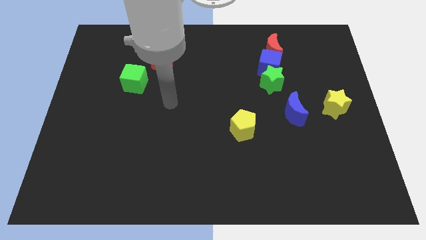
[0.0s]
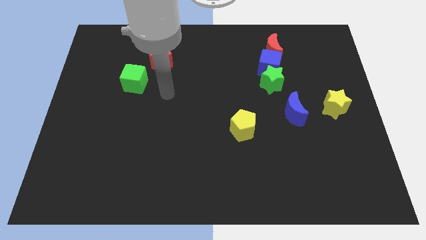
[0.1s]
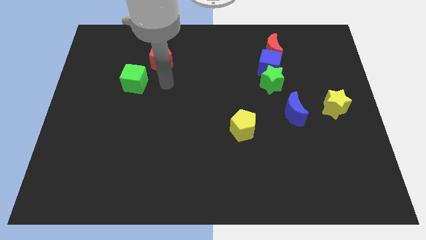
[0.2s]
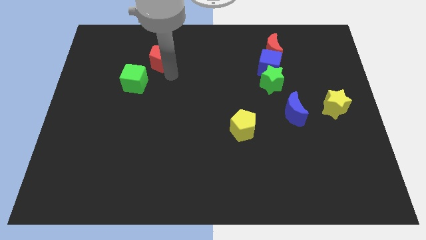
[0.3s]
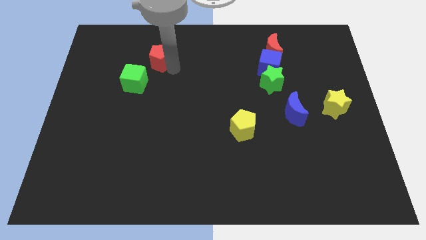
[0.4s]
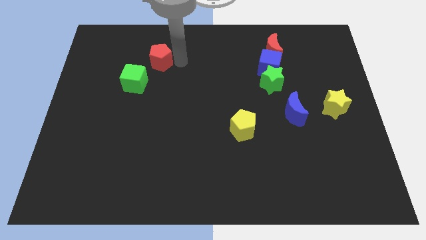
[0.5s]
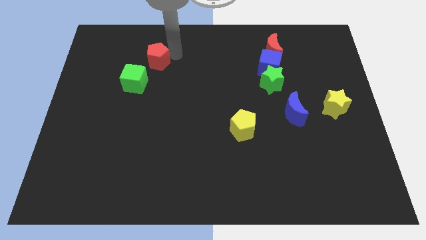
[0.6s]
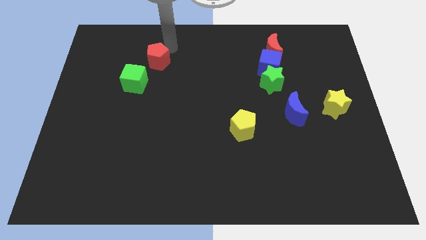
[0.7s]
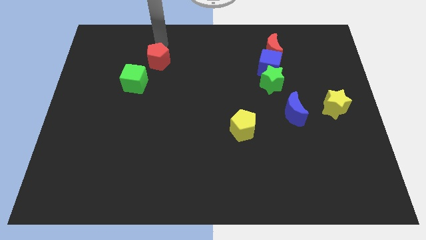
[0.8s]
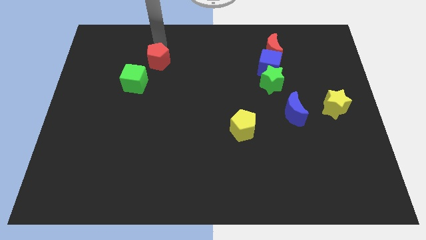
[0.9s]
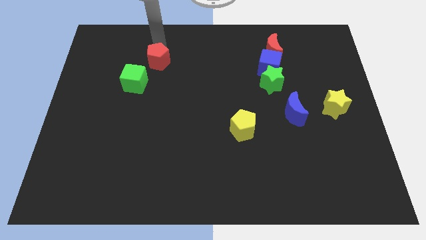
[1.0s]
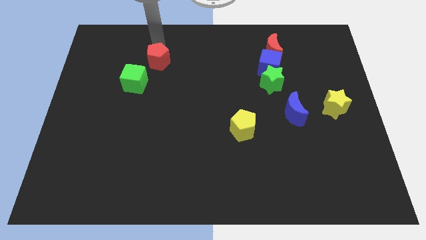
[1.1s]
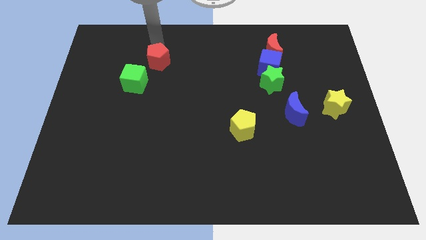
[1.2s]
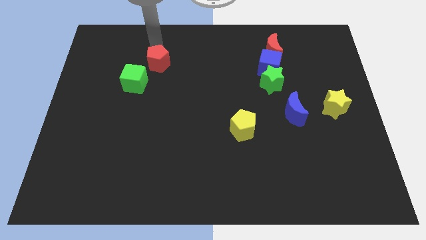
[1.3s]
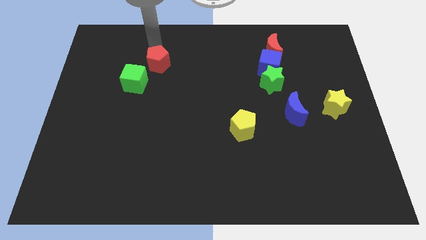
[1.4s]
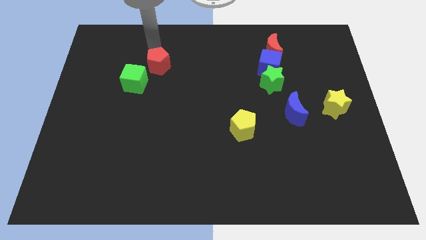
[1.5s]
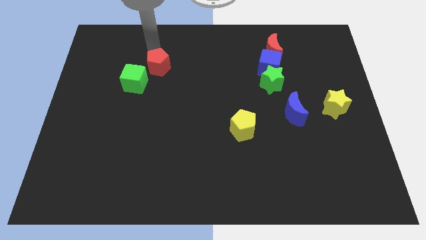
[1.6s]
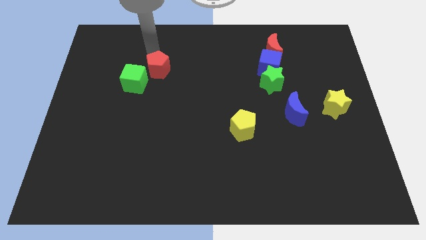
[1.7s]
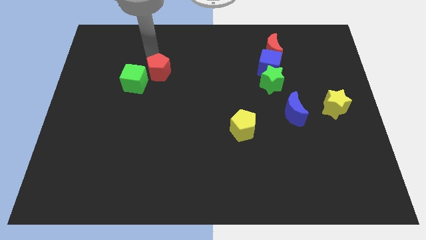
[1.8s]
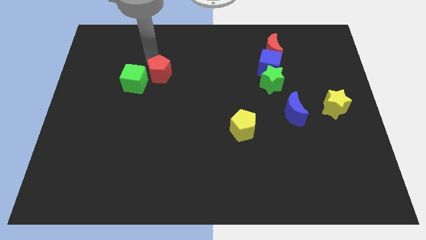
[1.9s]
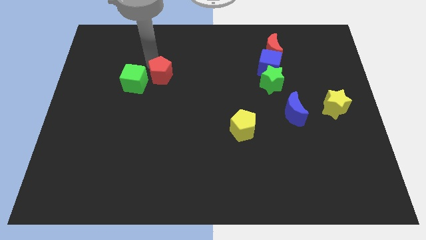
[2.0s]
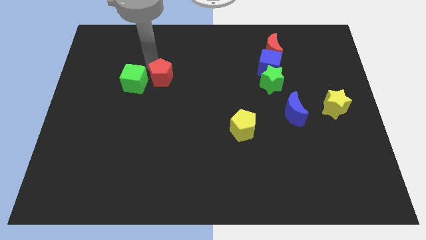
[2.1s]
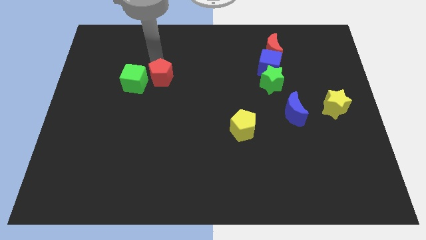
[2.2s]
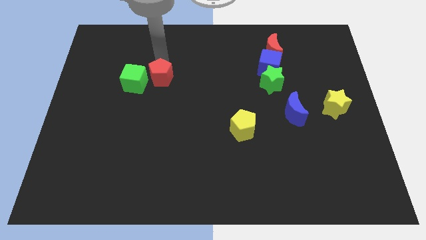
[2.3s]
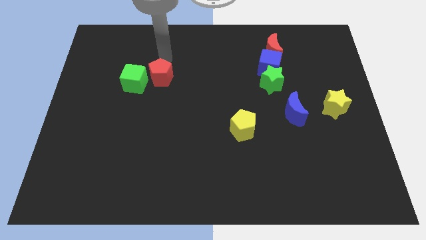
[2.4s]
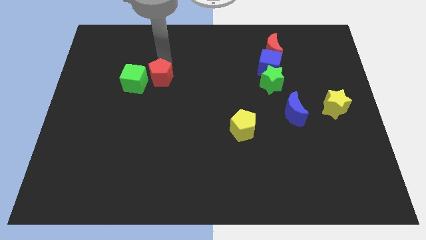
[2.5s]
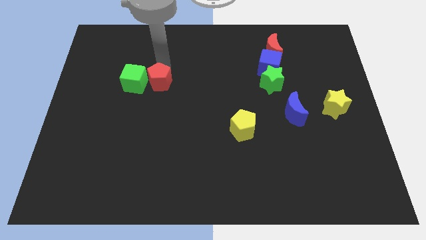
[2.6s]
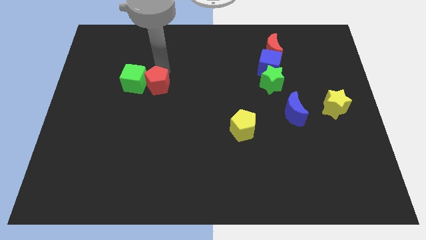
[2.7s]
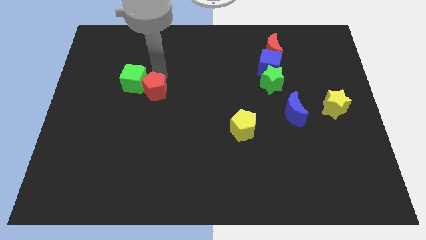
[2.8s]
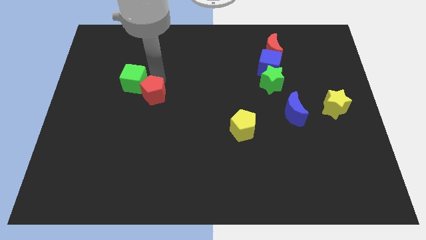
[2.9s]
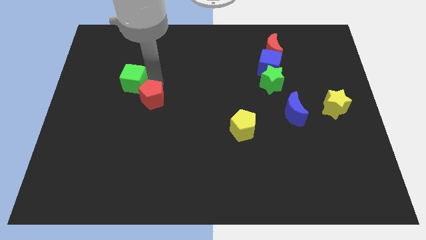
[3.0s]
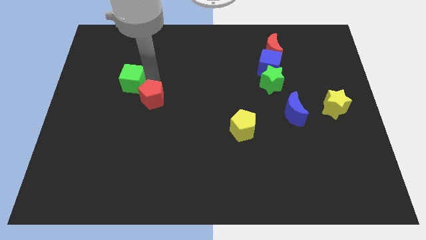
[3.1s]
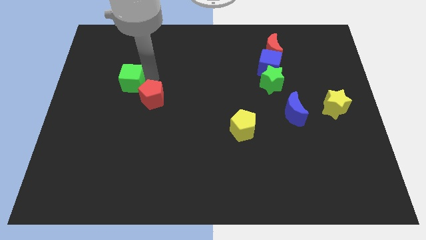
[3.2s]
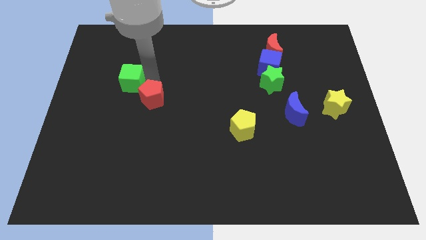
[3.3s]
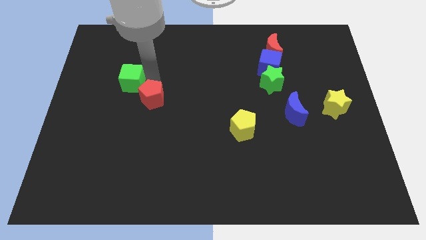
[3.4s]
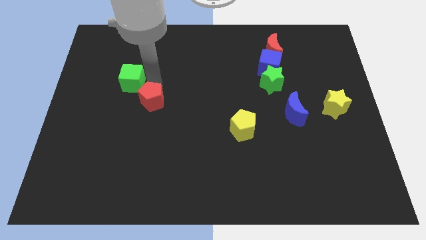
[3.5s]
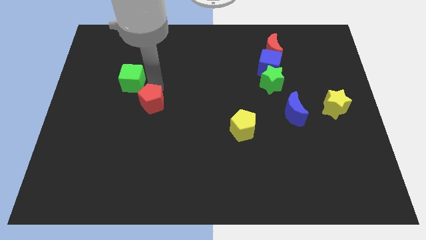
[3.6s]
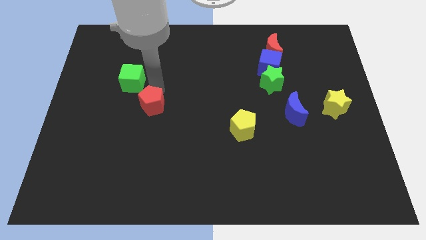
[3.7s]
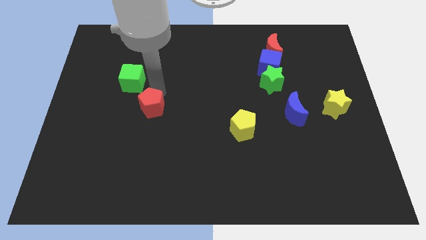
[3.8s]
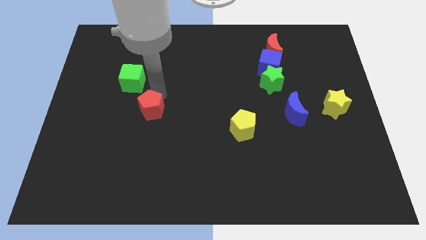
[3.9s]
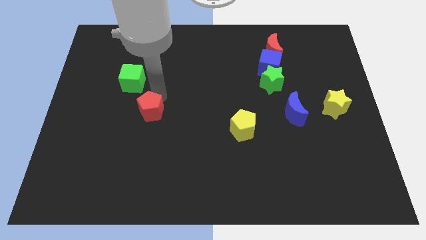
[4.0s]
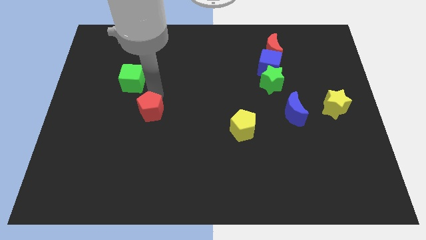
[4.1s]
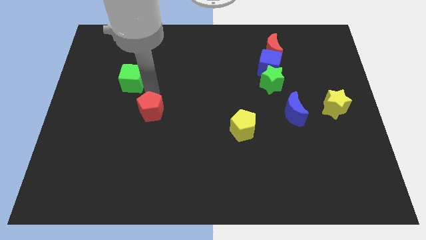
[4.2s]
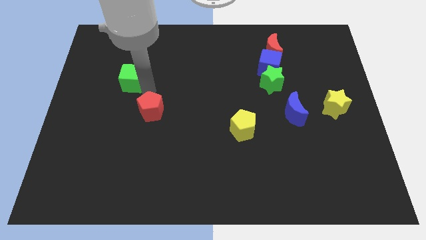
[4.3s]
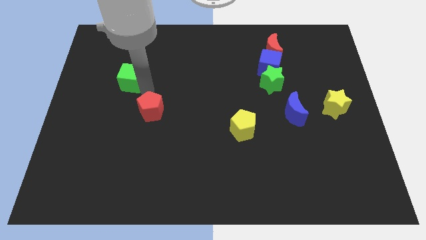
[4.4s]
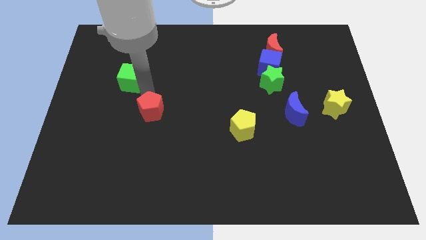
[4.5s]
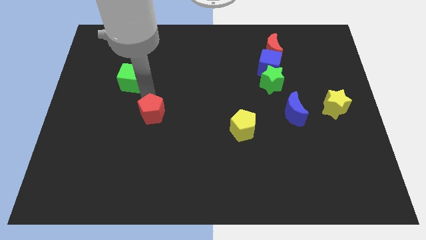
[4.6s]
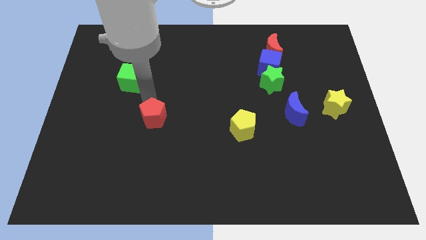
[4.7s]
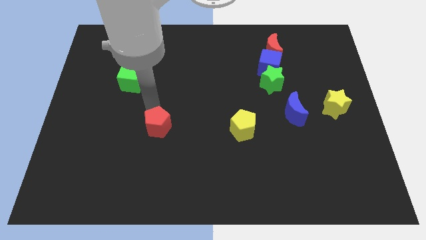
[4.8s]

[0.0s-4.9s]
push the red pentagon downwards

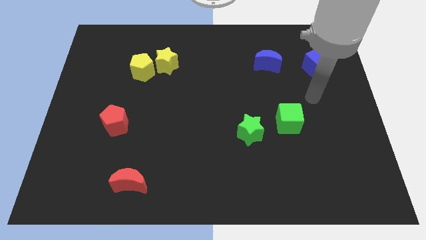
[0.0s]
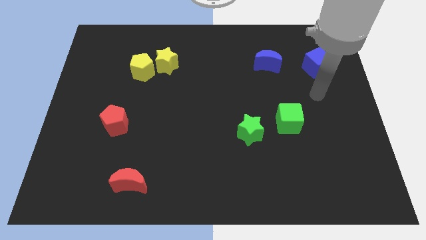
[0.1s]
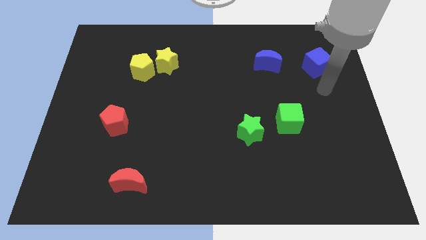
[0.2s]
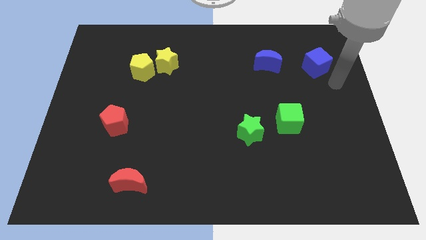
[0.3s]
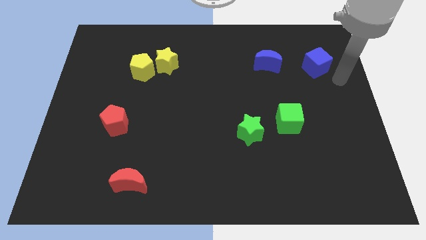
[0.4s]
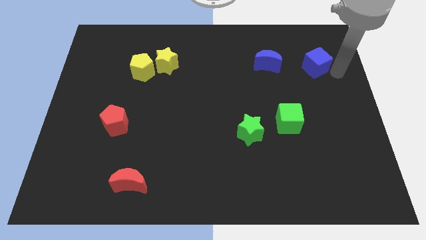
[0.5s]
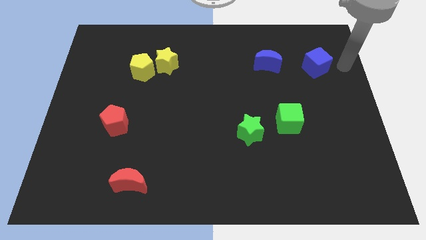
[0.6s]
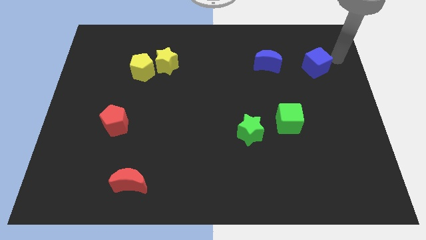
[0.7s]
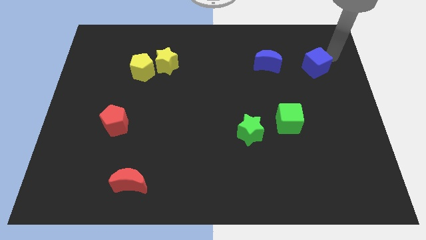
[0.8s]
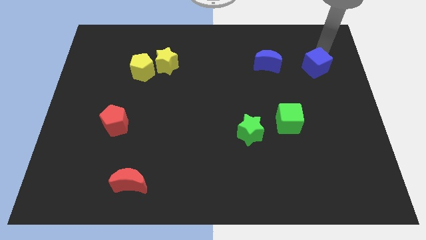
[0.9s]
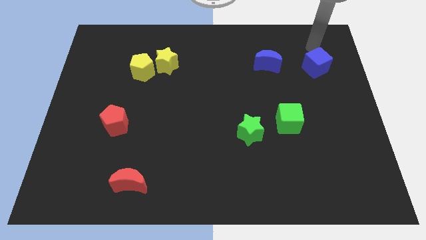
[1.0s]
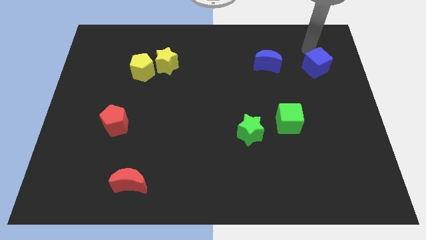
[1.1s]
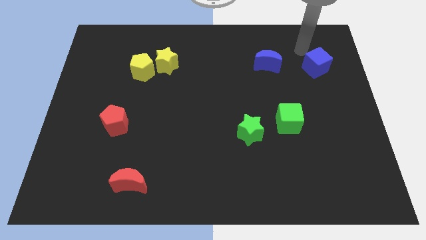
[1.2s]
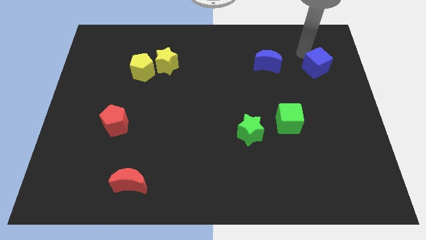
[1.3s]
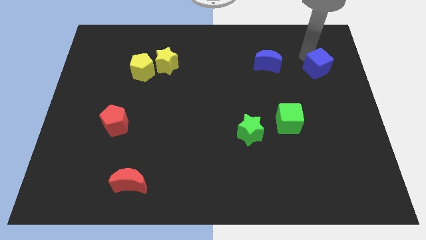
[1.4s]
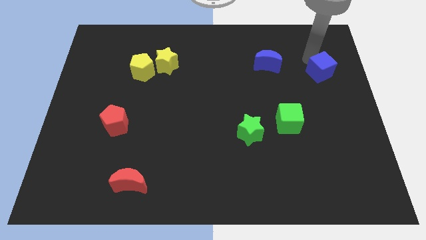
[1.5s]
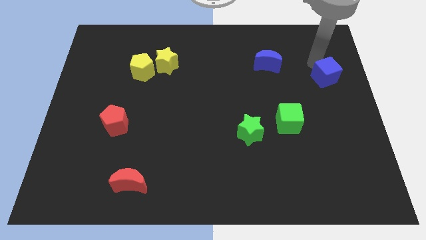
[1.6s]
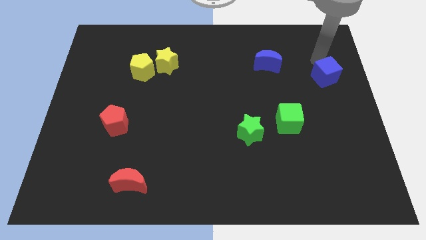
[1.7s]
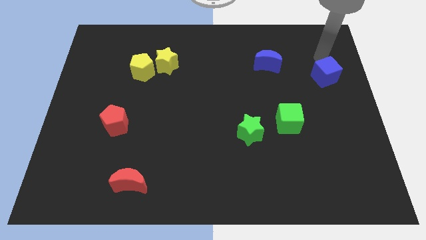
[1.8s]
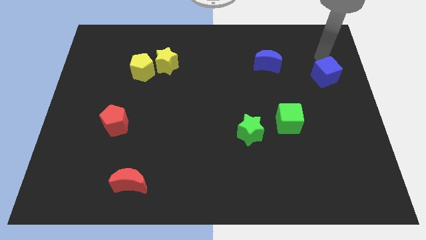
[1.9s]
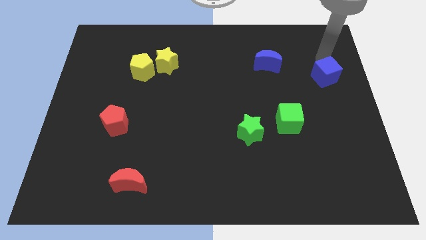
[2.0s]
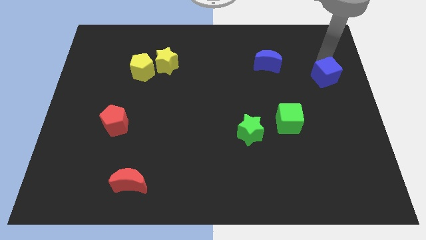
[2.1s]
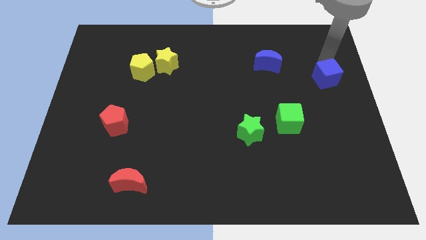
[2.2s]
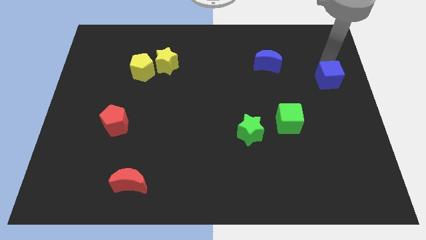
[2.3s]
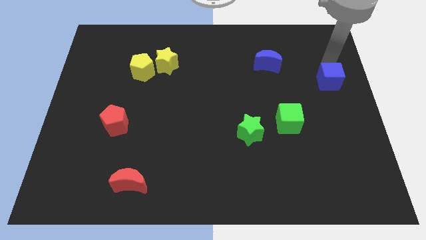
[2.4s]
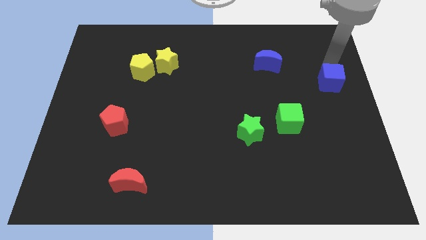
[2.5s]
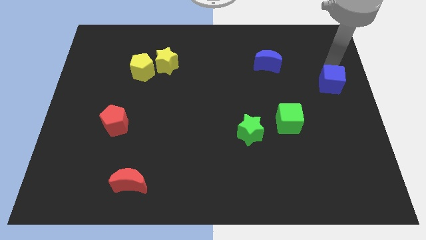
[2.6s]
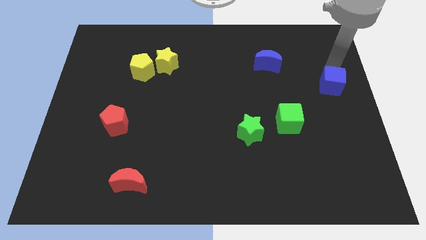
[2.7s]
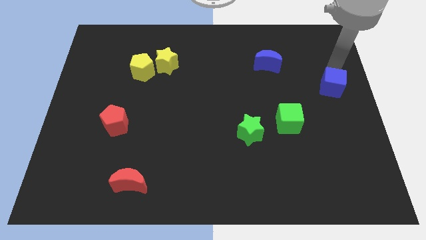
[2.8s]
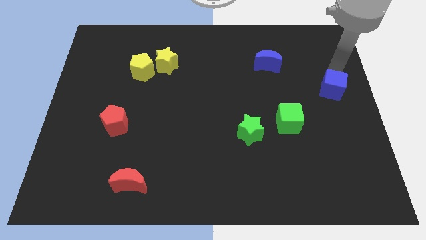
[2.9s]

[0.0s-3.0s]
move the blue cube a little downwards
